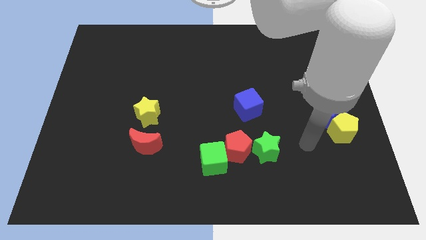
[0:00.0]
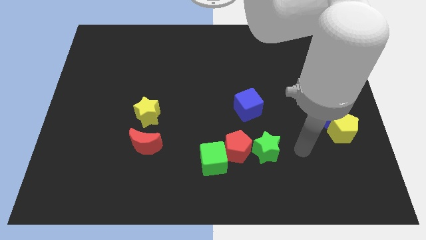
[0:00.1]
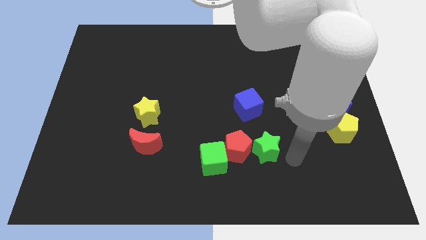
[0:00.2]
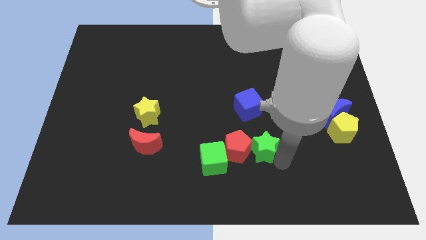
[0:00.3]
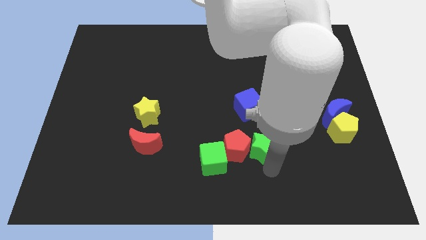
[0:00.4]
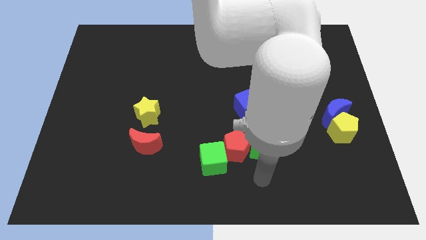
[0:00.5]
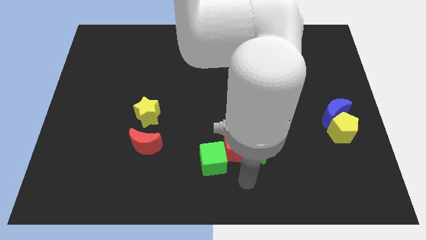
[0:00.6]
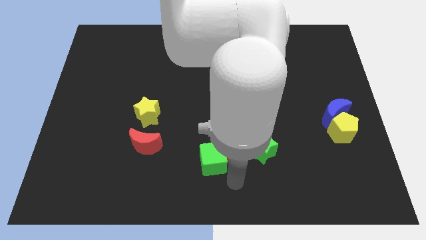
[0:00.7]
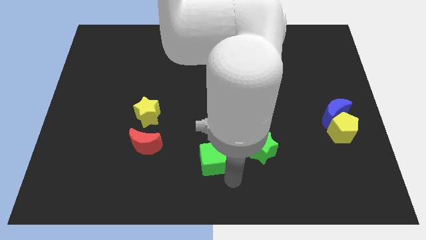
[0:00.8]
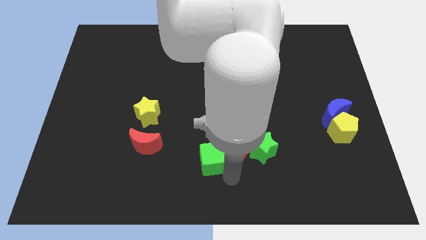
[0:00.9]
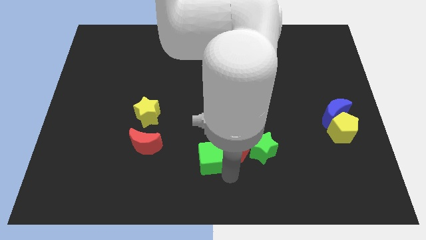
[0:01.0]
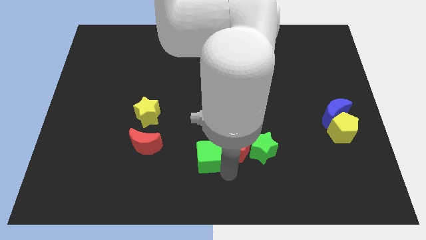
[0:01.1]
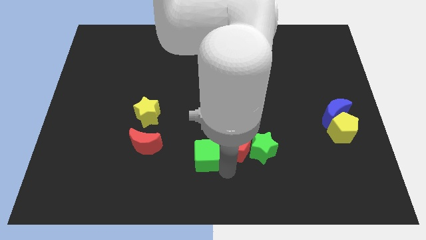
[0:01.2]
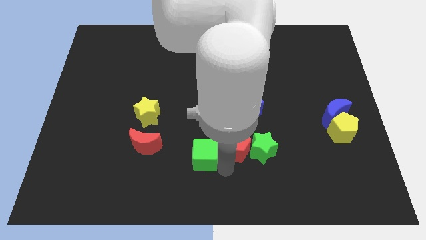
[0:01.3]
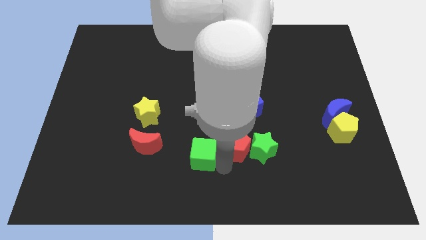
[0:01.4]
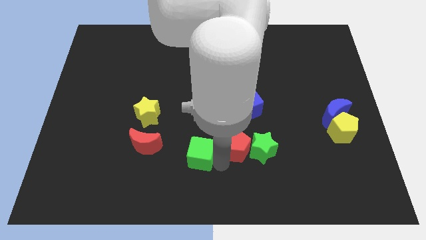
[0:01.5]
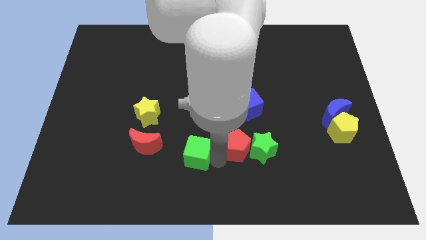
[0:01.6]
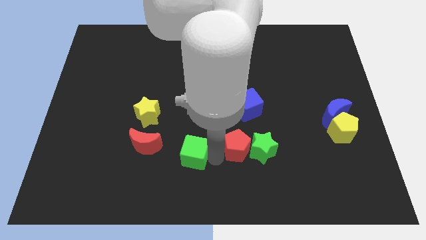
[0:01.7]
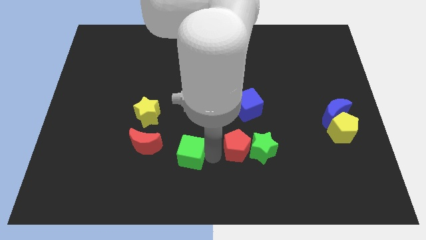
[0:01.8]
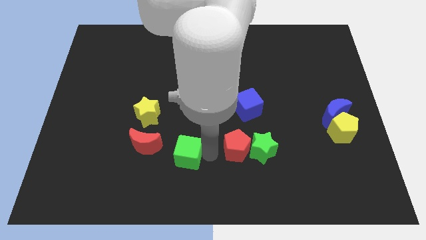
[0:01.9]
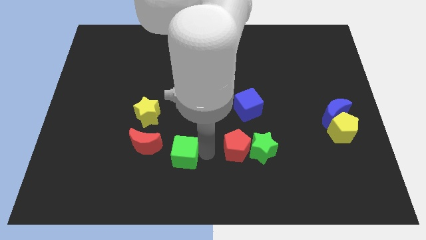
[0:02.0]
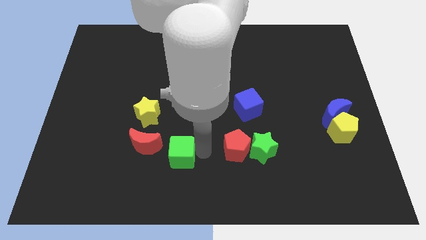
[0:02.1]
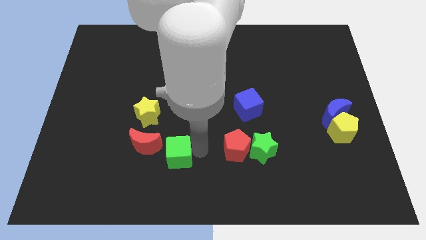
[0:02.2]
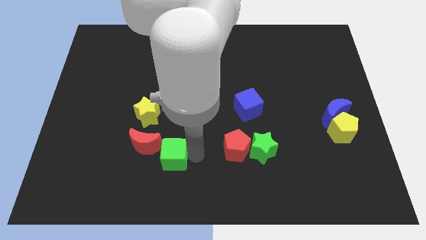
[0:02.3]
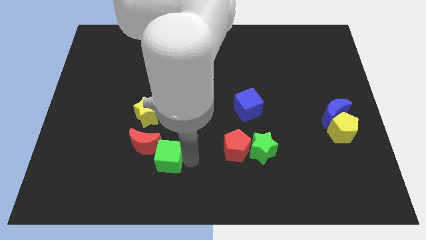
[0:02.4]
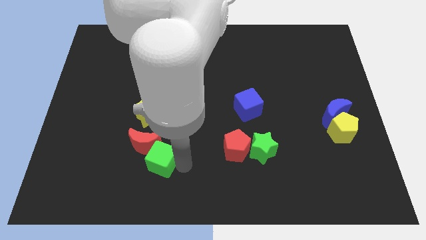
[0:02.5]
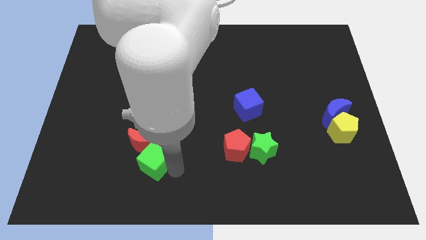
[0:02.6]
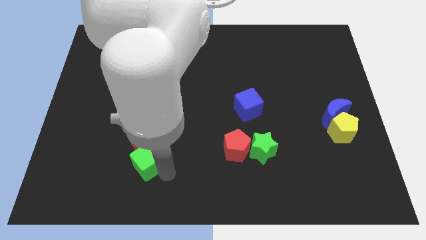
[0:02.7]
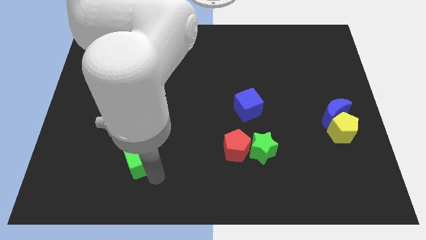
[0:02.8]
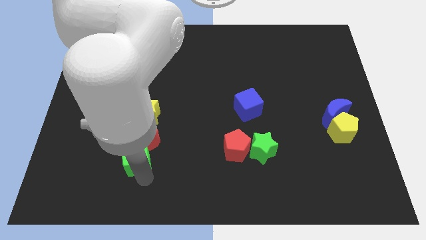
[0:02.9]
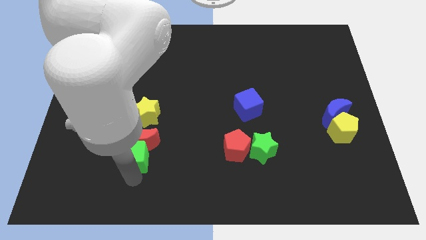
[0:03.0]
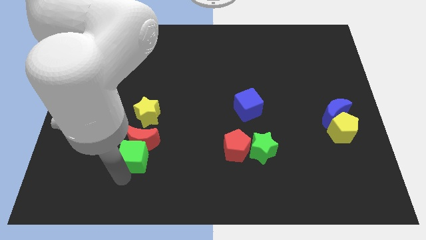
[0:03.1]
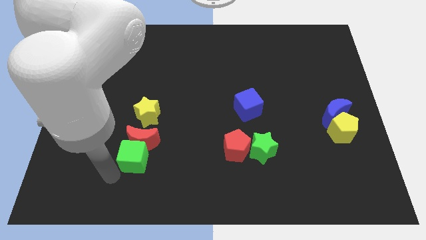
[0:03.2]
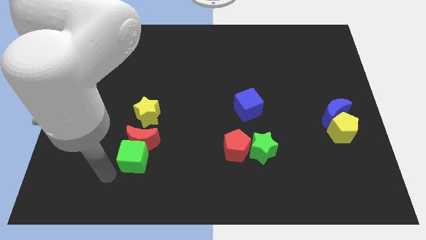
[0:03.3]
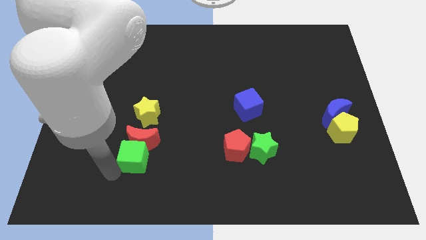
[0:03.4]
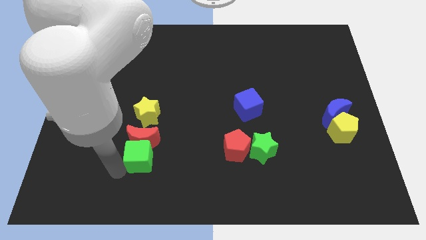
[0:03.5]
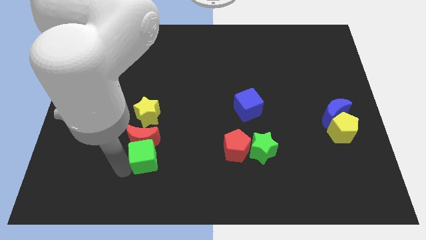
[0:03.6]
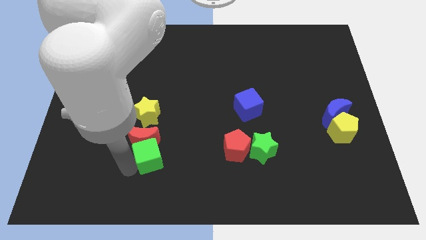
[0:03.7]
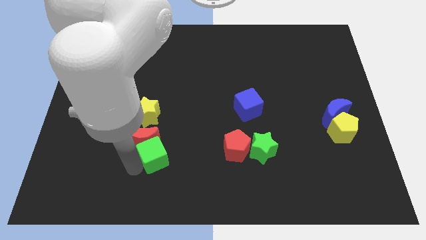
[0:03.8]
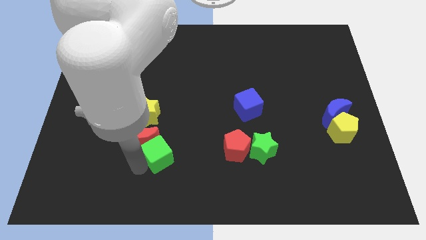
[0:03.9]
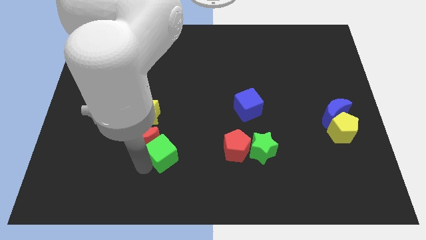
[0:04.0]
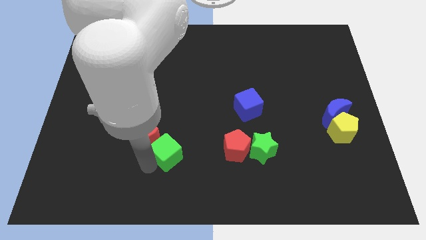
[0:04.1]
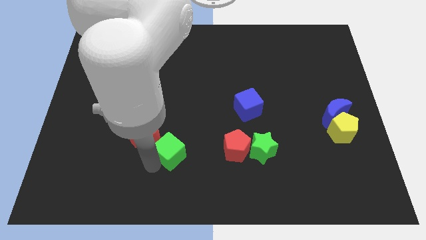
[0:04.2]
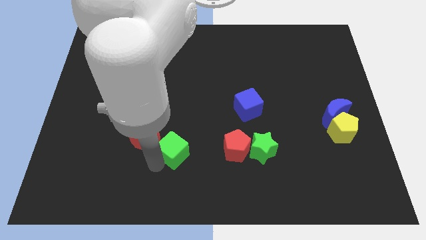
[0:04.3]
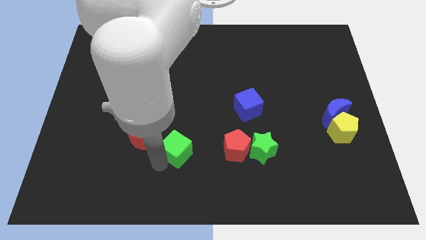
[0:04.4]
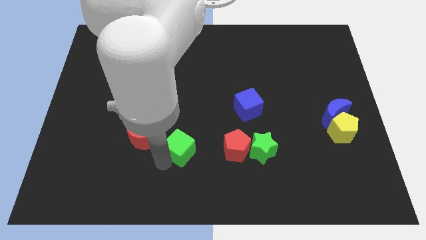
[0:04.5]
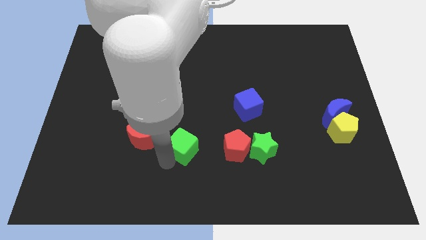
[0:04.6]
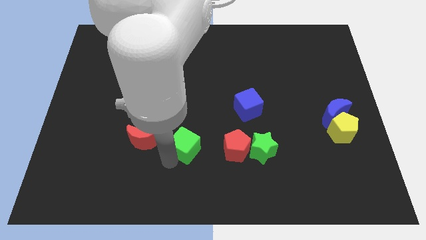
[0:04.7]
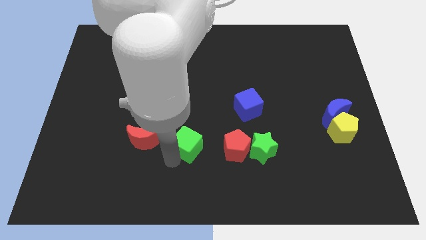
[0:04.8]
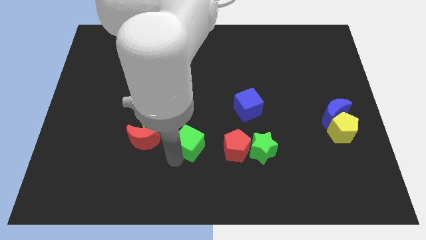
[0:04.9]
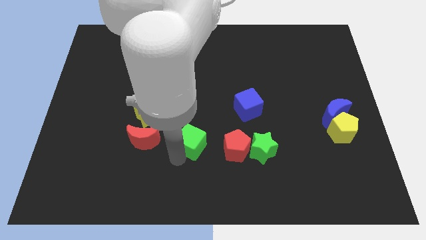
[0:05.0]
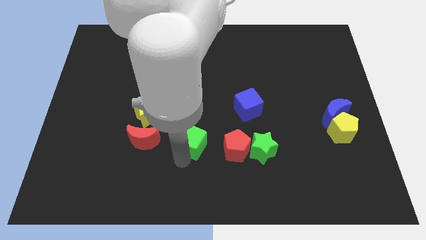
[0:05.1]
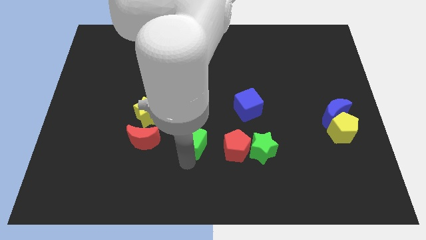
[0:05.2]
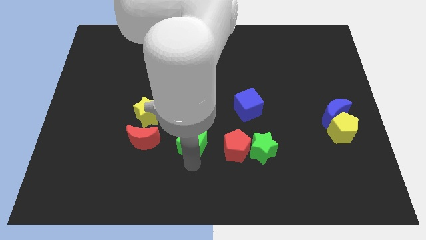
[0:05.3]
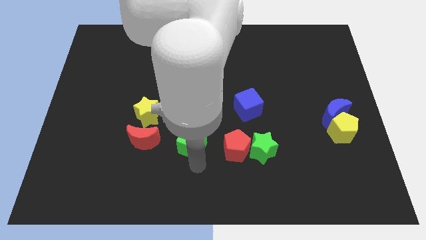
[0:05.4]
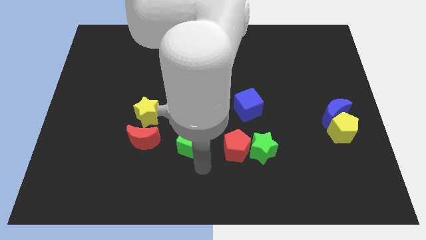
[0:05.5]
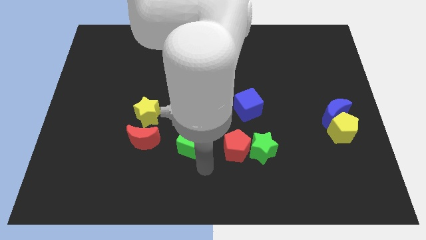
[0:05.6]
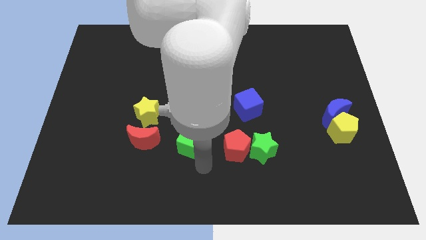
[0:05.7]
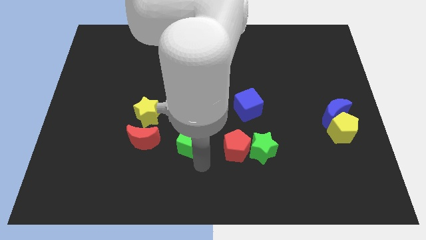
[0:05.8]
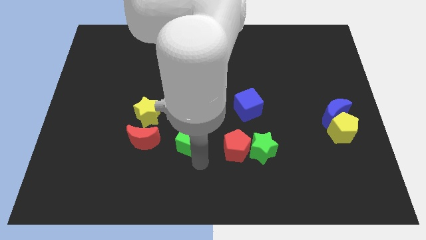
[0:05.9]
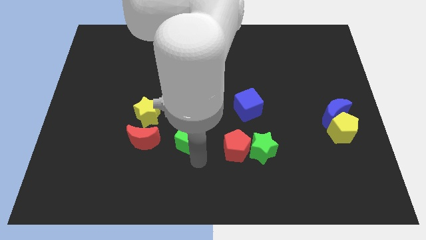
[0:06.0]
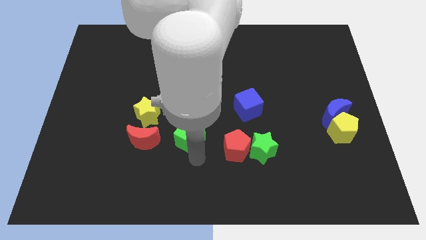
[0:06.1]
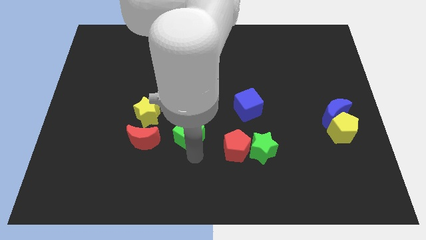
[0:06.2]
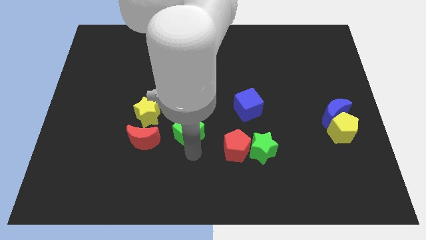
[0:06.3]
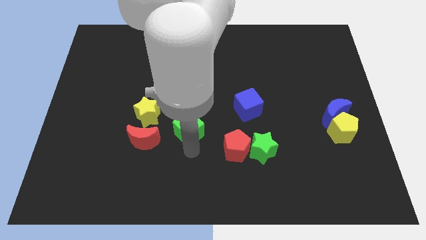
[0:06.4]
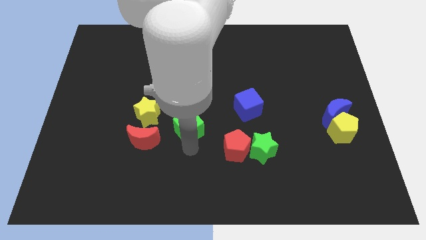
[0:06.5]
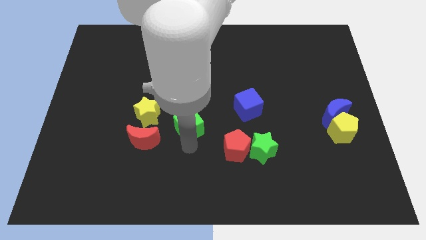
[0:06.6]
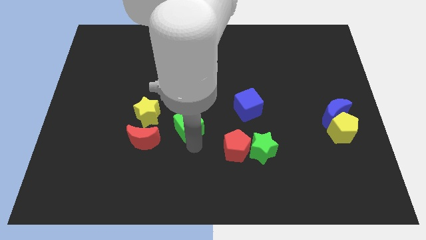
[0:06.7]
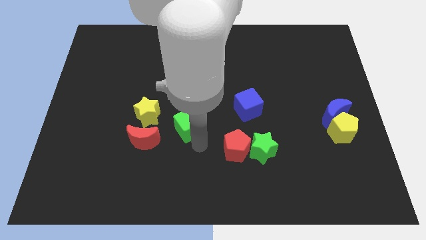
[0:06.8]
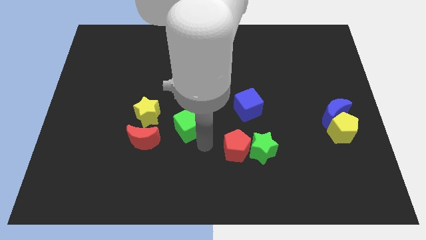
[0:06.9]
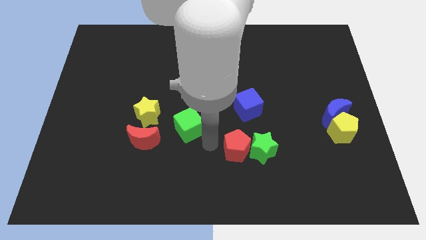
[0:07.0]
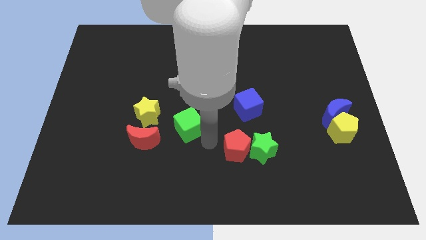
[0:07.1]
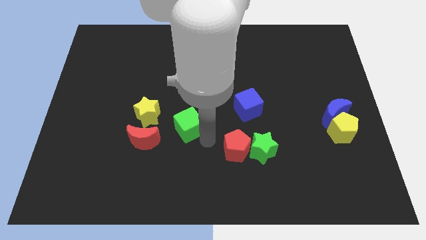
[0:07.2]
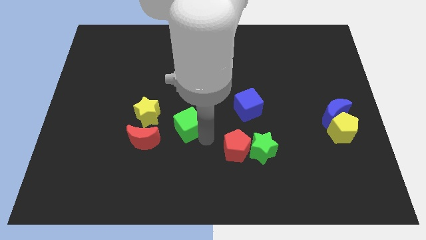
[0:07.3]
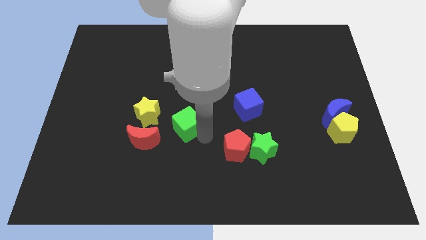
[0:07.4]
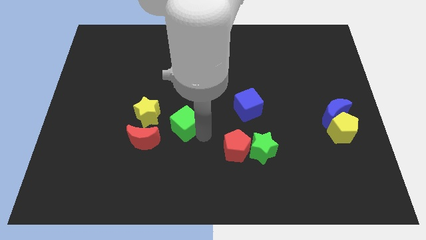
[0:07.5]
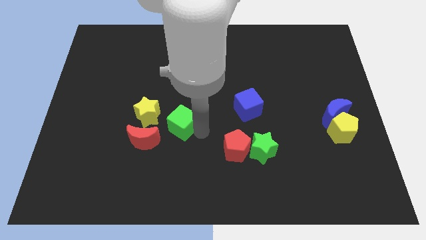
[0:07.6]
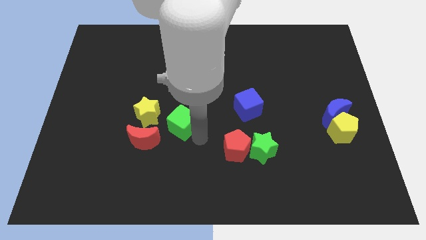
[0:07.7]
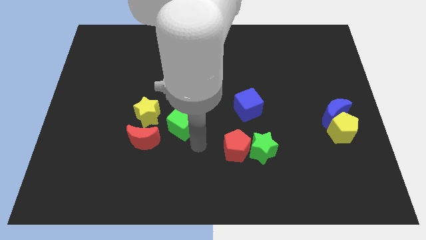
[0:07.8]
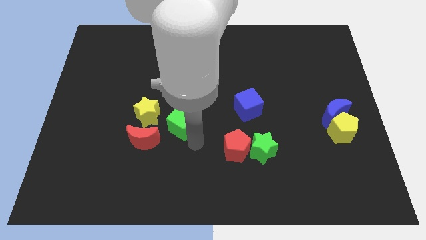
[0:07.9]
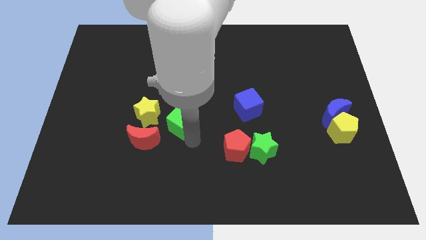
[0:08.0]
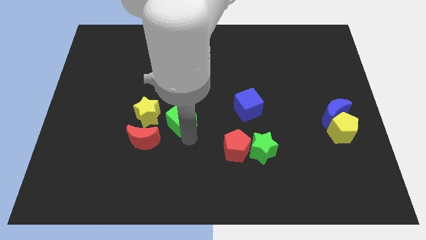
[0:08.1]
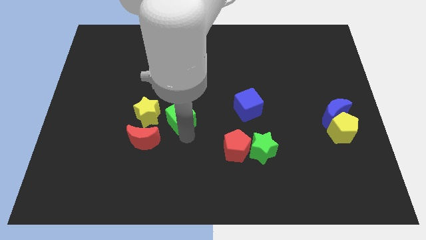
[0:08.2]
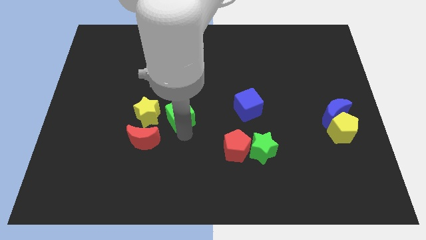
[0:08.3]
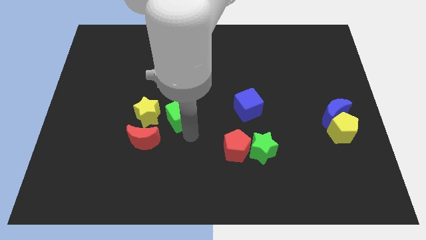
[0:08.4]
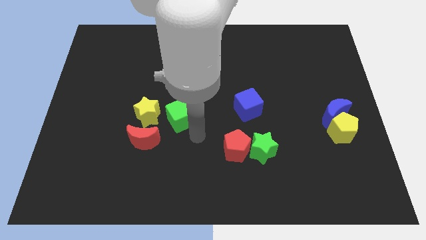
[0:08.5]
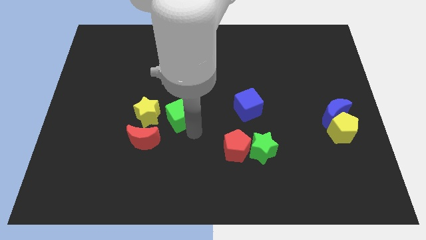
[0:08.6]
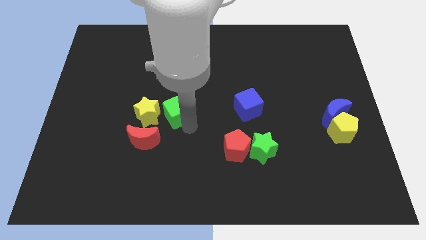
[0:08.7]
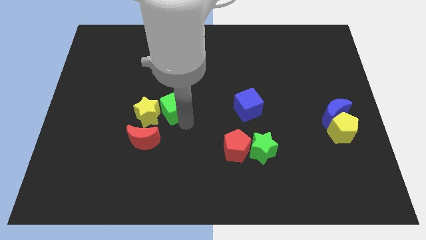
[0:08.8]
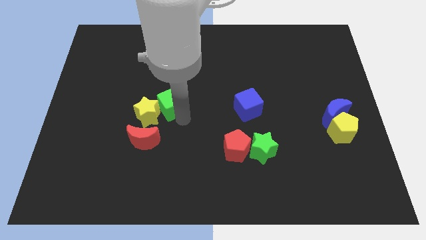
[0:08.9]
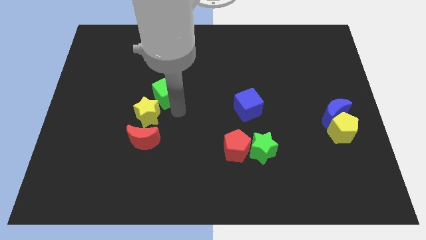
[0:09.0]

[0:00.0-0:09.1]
push the green cube diagonally up and to the left
